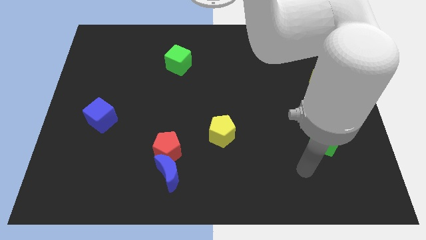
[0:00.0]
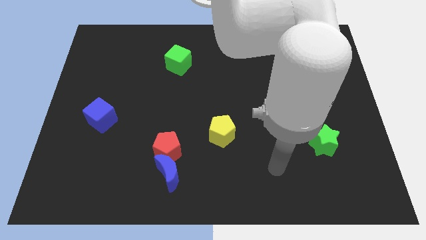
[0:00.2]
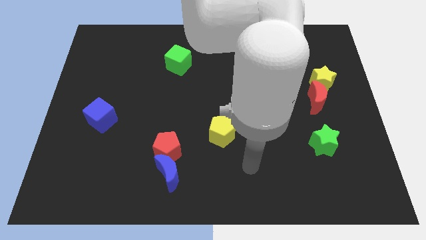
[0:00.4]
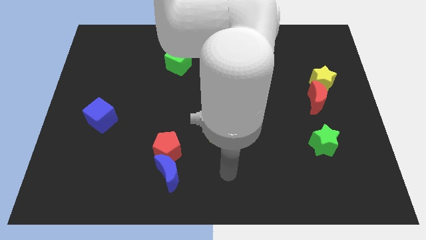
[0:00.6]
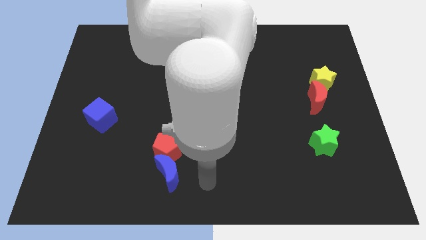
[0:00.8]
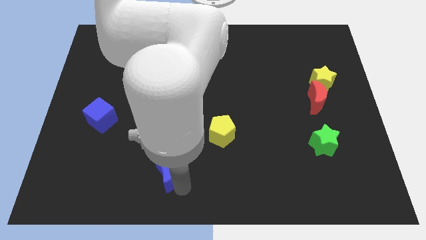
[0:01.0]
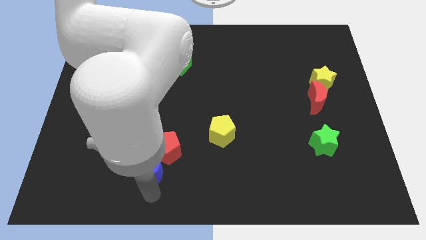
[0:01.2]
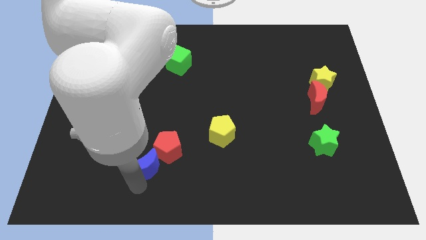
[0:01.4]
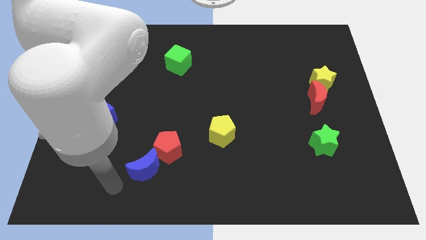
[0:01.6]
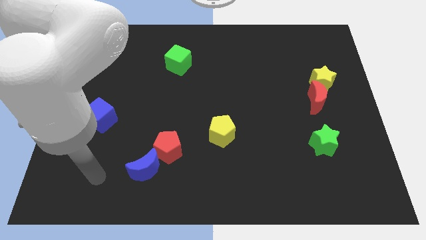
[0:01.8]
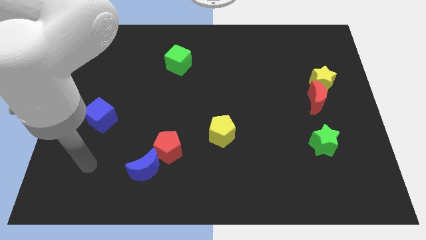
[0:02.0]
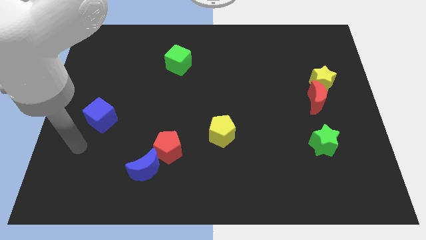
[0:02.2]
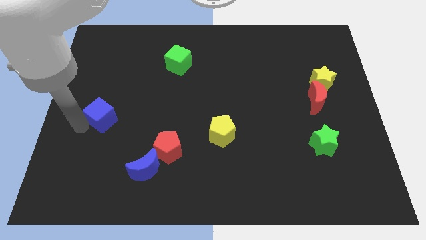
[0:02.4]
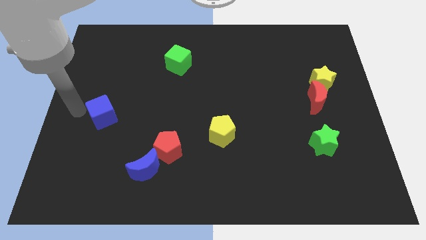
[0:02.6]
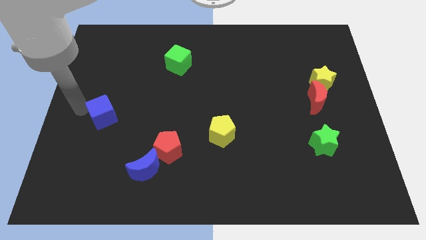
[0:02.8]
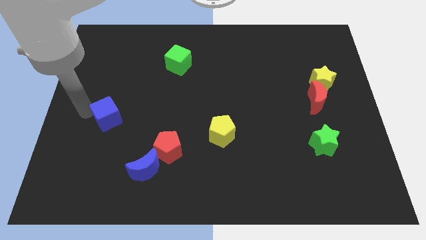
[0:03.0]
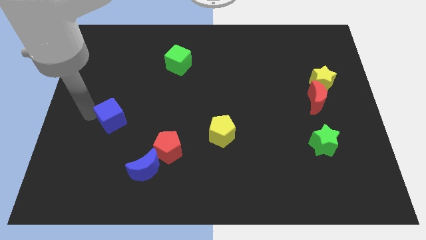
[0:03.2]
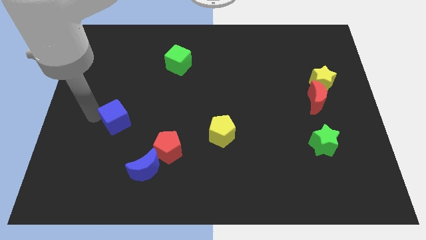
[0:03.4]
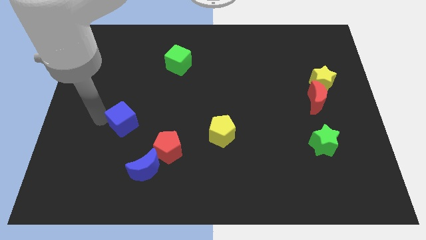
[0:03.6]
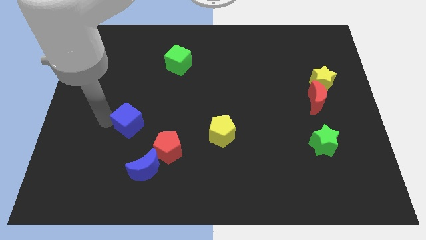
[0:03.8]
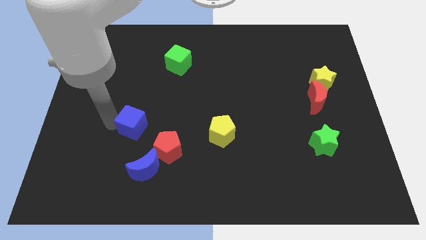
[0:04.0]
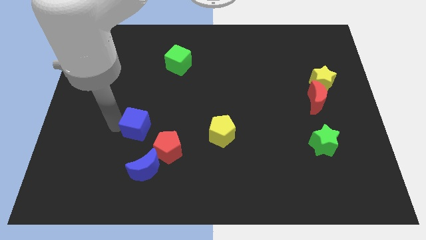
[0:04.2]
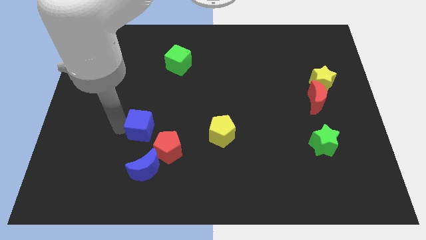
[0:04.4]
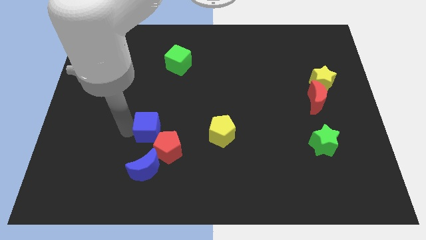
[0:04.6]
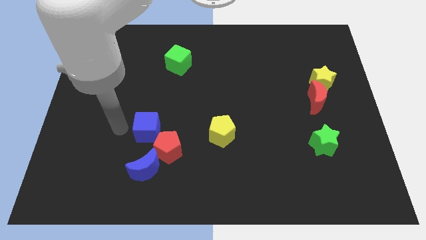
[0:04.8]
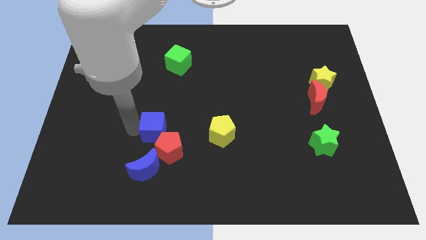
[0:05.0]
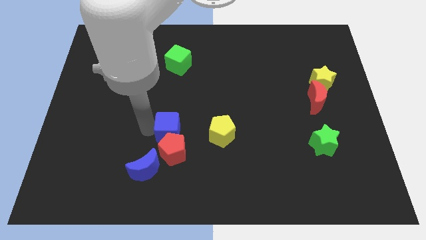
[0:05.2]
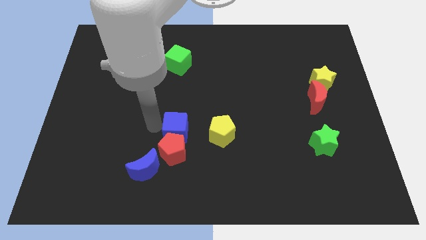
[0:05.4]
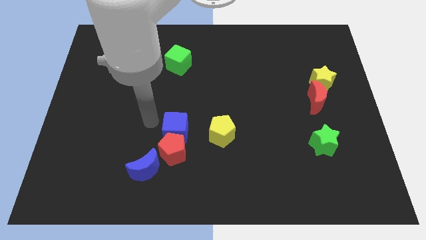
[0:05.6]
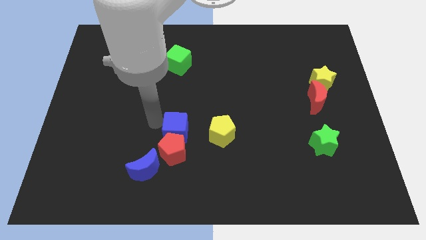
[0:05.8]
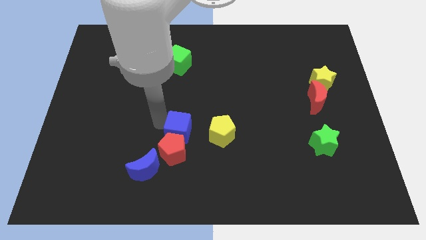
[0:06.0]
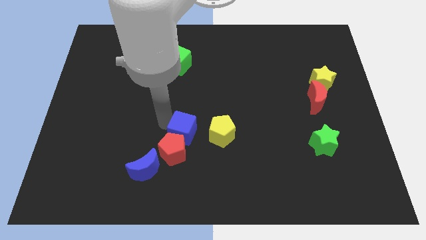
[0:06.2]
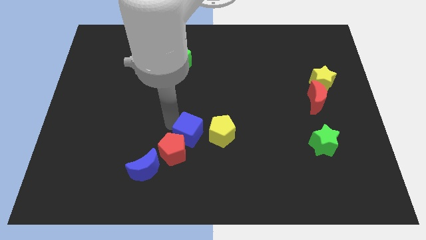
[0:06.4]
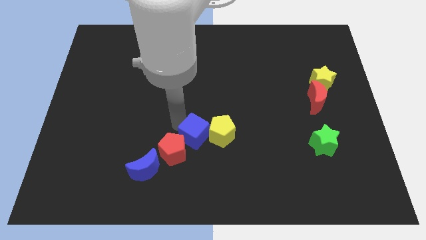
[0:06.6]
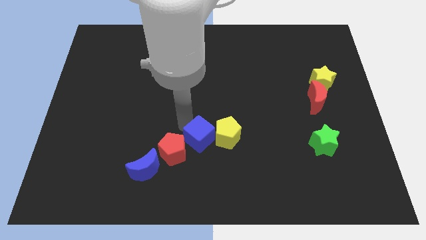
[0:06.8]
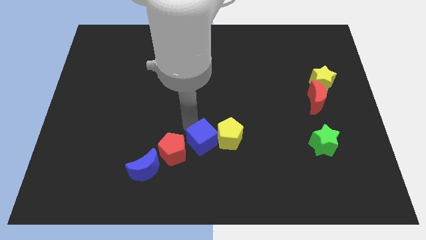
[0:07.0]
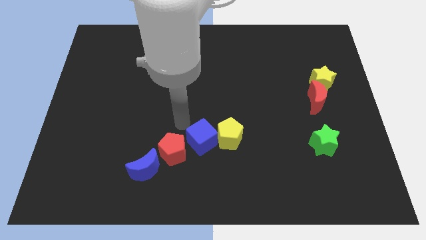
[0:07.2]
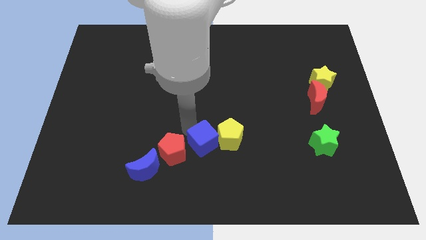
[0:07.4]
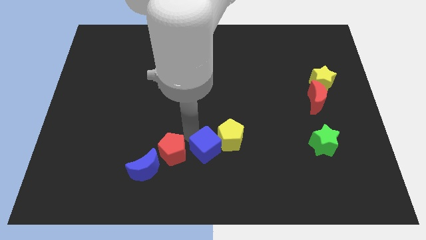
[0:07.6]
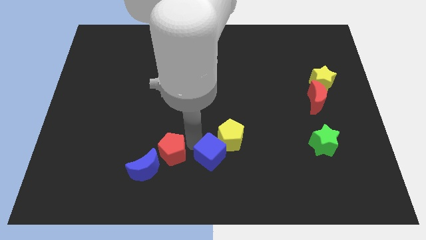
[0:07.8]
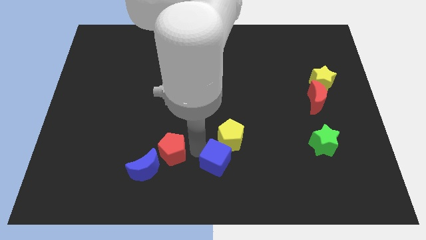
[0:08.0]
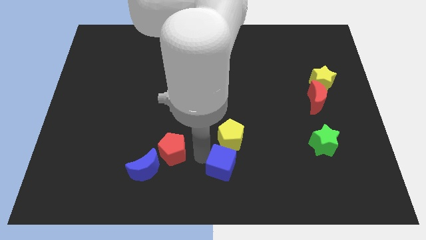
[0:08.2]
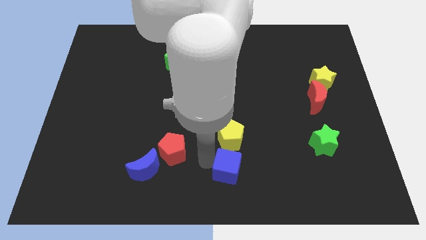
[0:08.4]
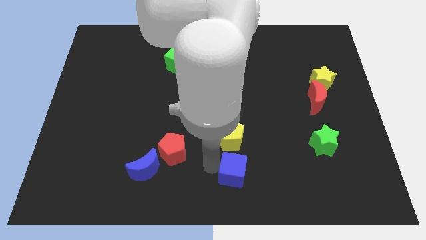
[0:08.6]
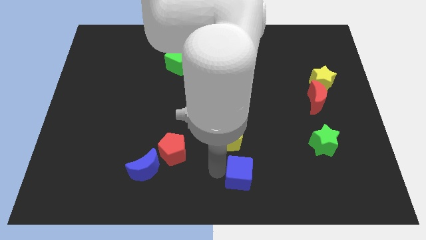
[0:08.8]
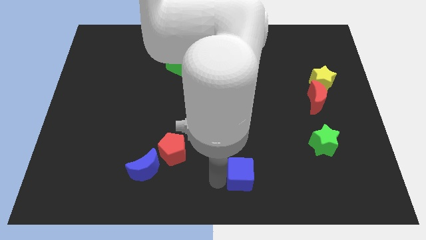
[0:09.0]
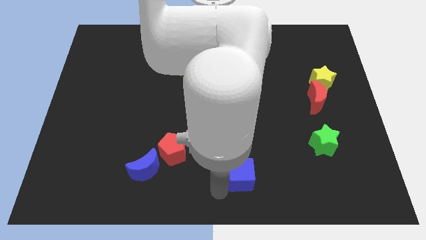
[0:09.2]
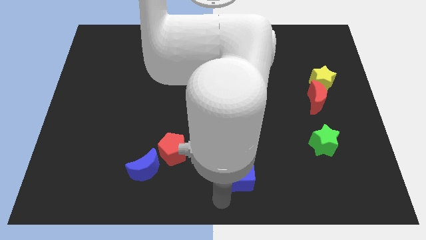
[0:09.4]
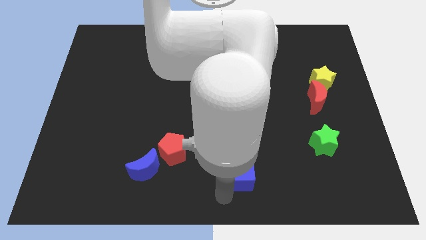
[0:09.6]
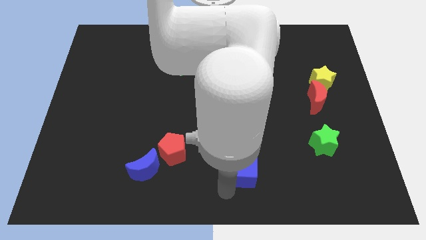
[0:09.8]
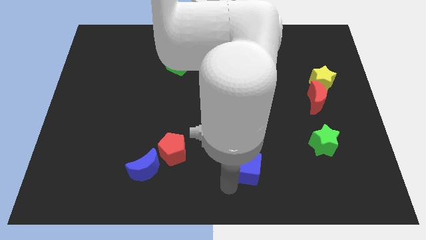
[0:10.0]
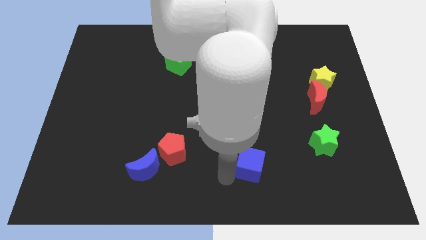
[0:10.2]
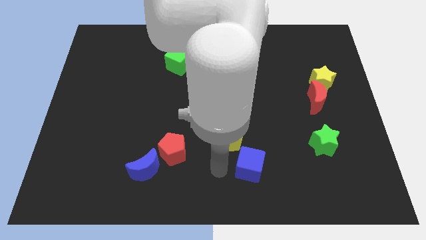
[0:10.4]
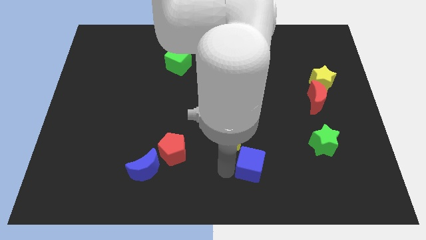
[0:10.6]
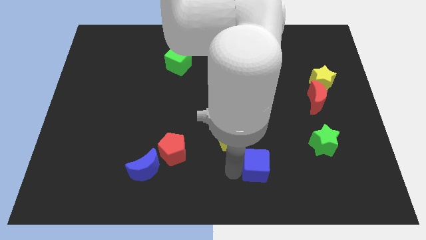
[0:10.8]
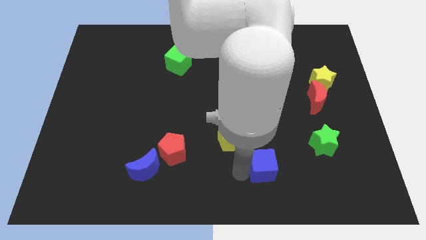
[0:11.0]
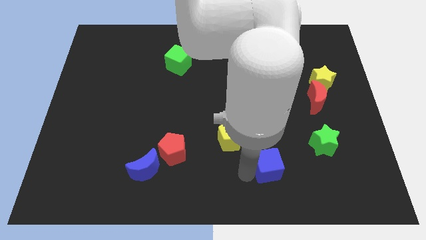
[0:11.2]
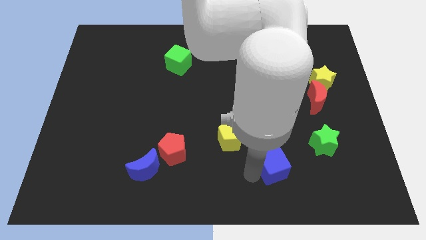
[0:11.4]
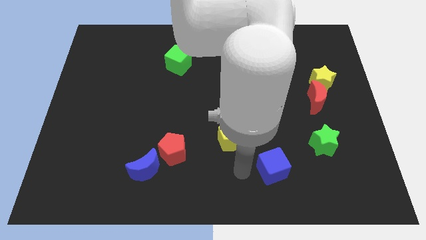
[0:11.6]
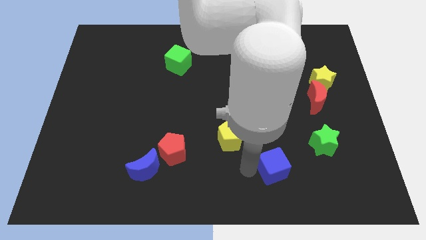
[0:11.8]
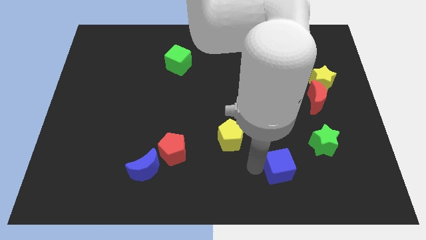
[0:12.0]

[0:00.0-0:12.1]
move the blue cube to the bottom left side of the green star

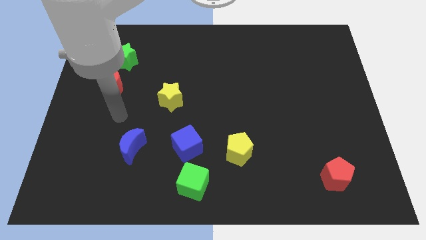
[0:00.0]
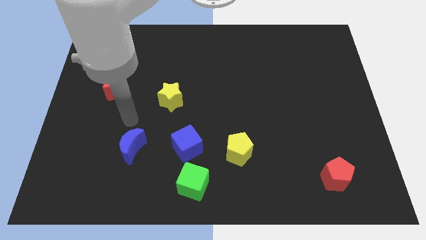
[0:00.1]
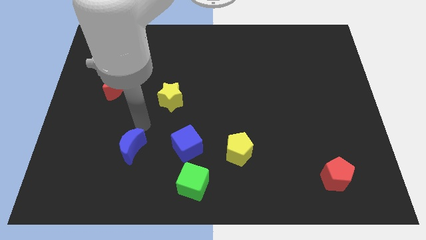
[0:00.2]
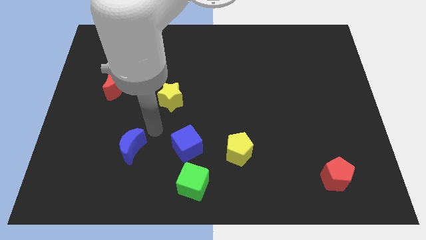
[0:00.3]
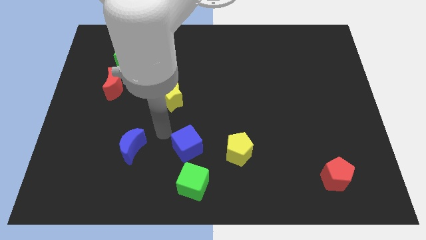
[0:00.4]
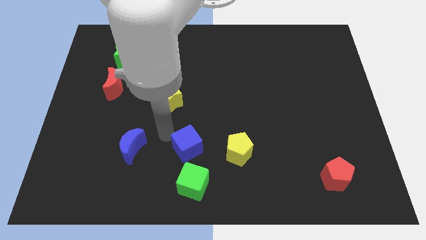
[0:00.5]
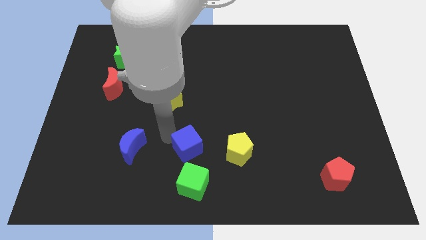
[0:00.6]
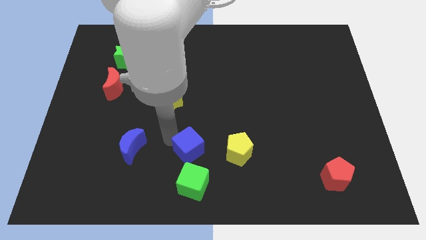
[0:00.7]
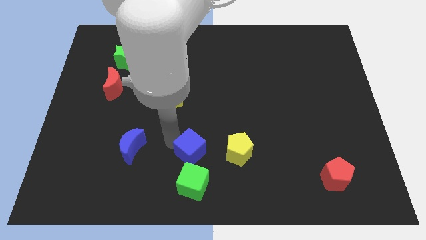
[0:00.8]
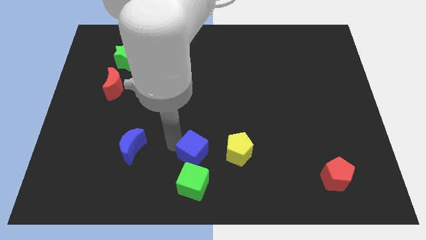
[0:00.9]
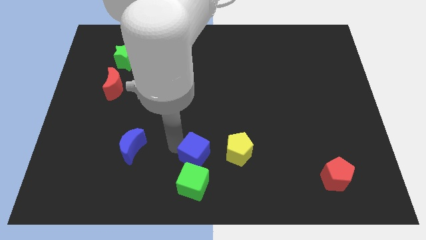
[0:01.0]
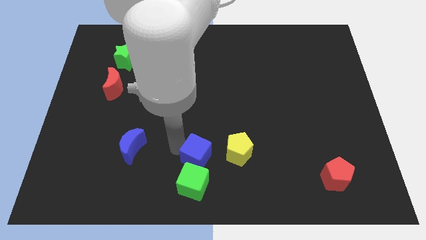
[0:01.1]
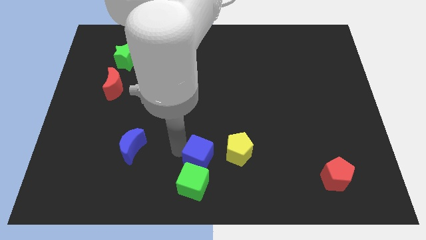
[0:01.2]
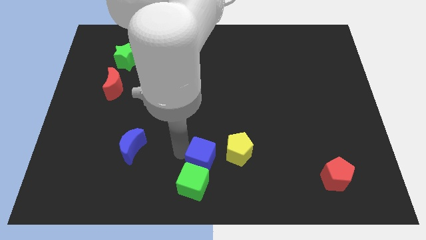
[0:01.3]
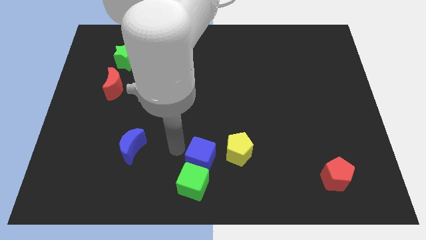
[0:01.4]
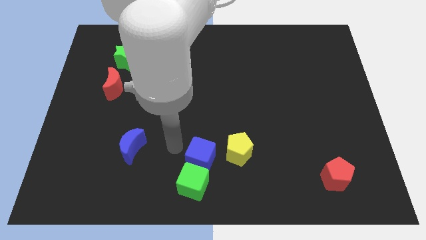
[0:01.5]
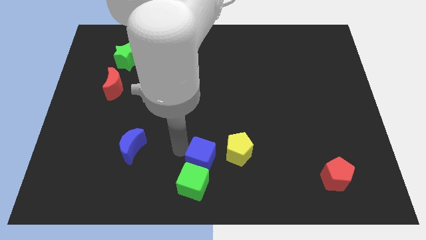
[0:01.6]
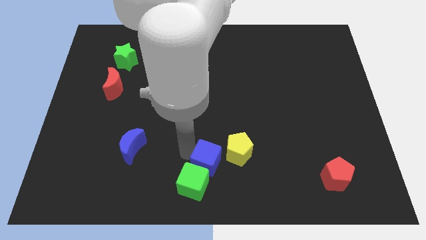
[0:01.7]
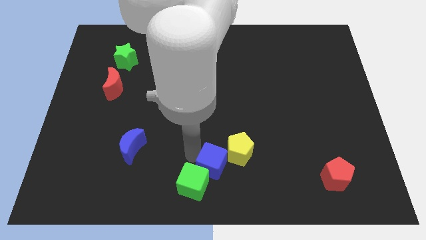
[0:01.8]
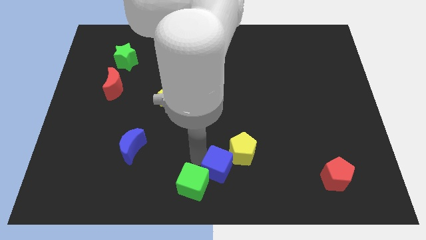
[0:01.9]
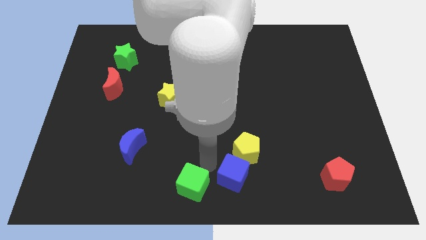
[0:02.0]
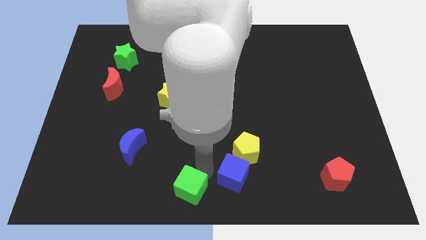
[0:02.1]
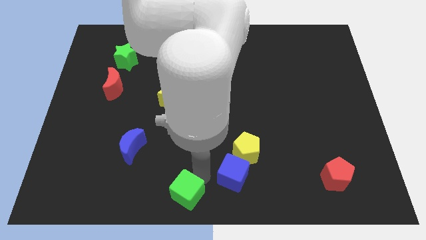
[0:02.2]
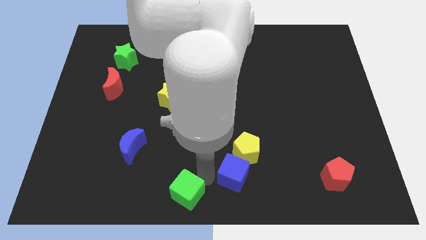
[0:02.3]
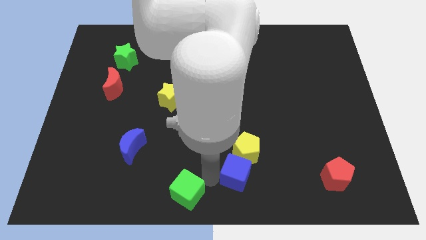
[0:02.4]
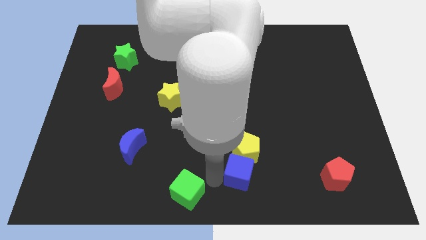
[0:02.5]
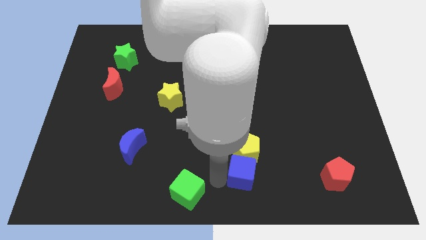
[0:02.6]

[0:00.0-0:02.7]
put the blue cube diagonally down and to the right of the yellow pentagon
